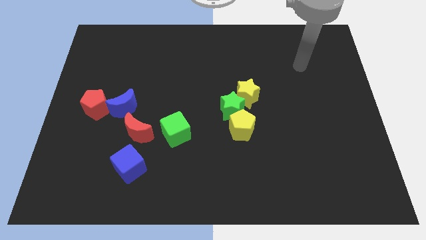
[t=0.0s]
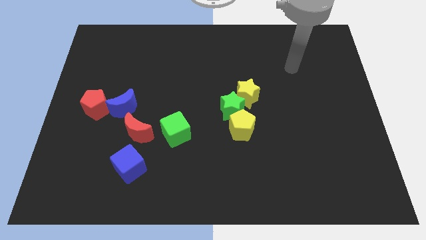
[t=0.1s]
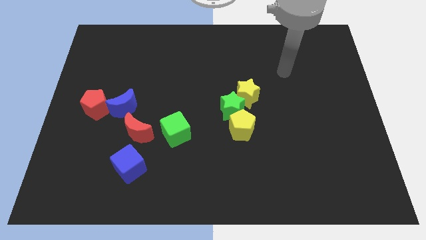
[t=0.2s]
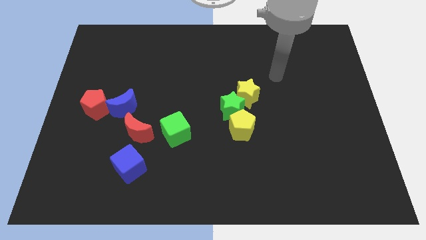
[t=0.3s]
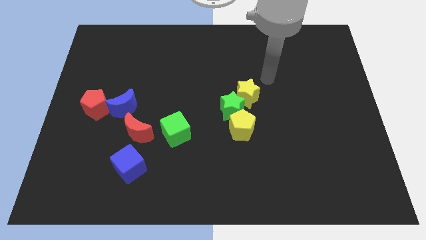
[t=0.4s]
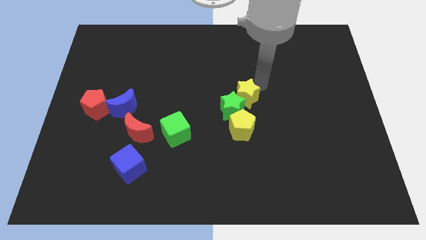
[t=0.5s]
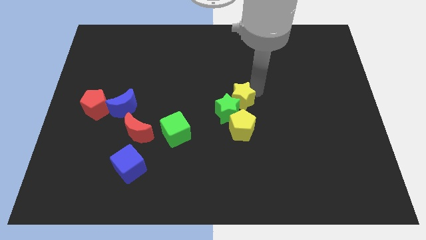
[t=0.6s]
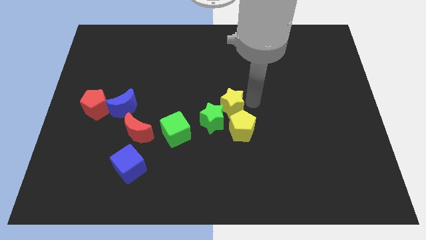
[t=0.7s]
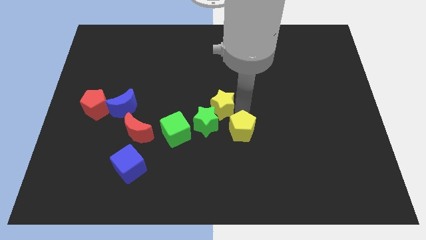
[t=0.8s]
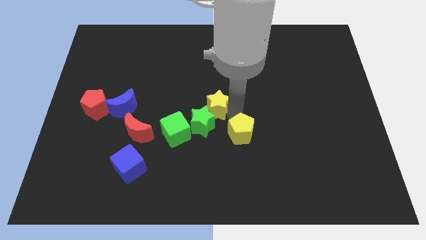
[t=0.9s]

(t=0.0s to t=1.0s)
slide the green star next to the green cube

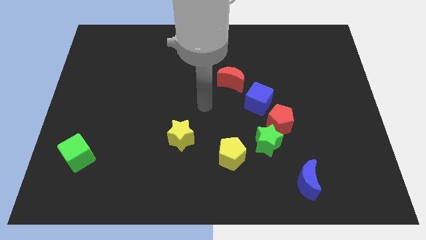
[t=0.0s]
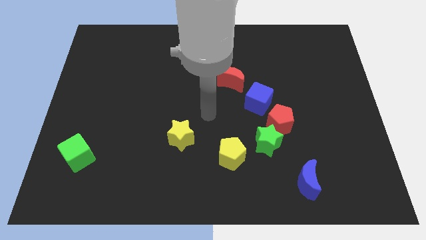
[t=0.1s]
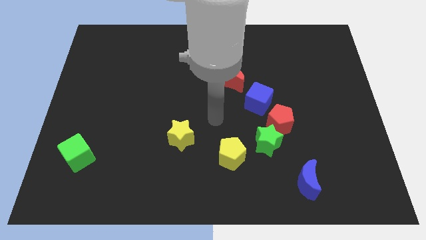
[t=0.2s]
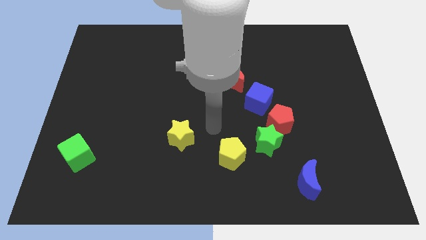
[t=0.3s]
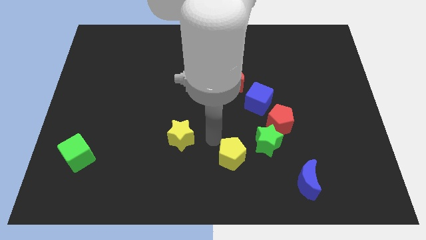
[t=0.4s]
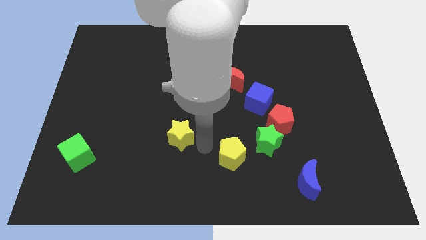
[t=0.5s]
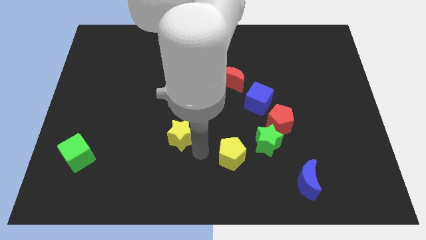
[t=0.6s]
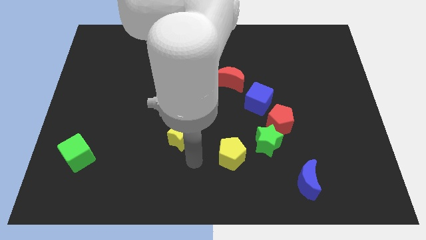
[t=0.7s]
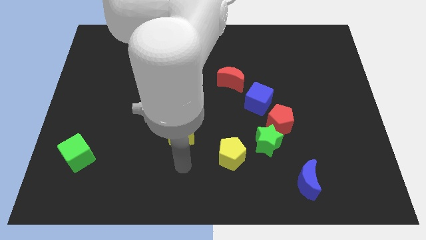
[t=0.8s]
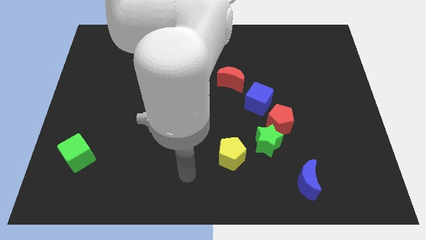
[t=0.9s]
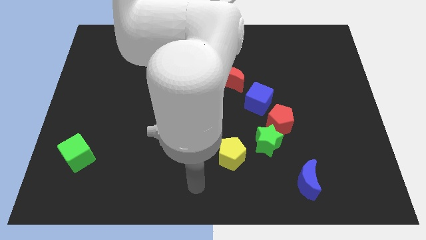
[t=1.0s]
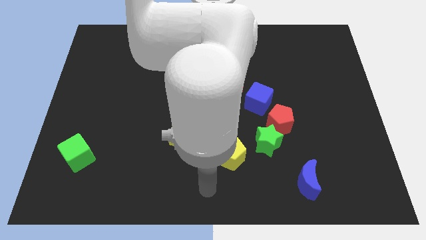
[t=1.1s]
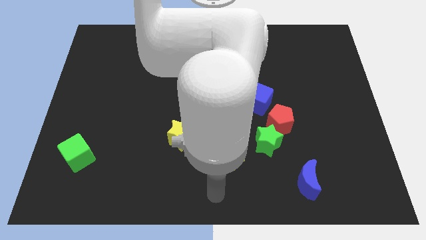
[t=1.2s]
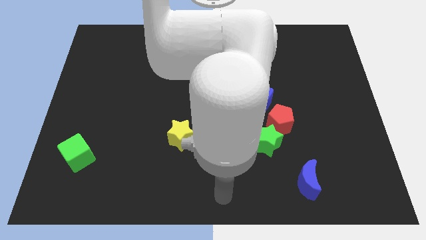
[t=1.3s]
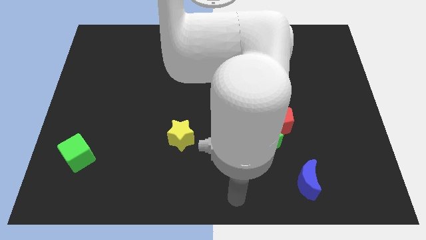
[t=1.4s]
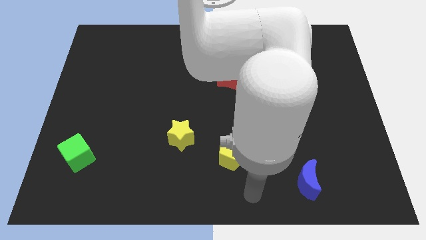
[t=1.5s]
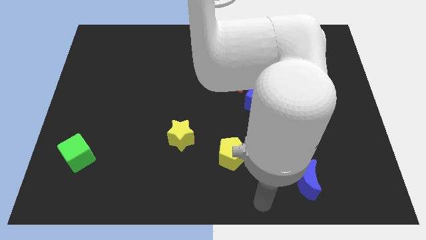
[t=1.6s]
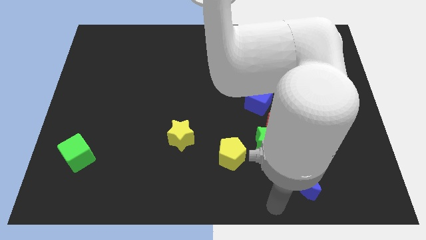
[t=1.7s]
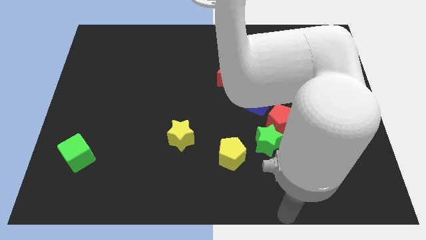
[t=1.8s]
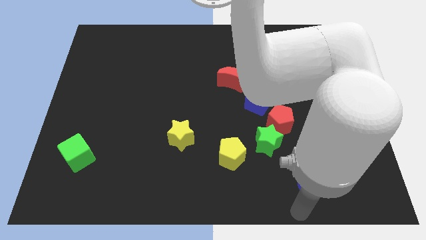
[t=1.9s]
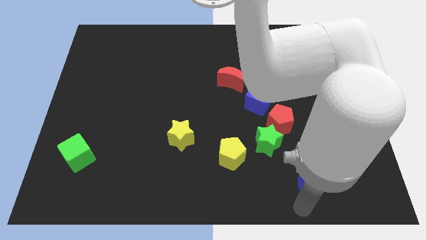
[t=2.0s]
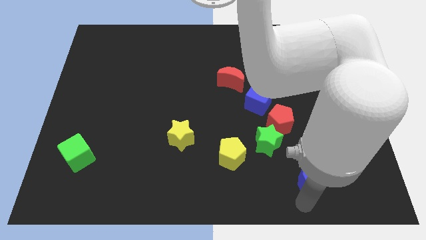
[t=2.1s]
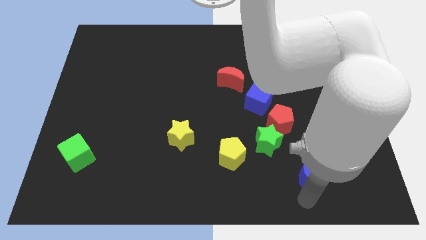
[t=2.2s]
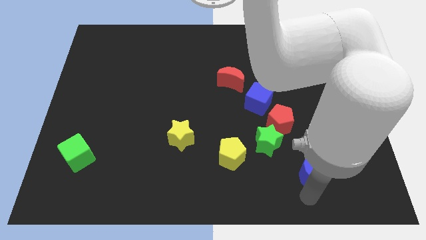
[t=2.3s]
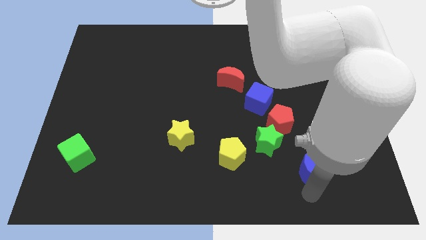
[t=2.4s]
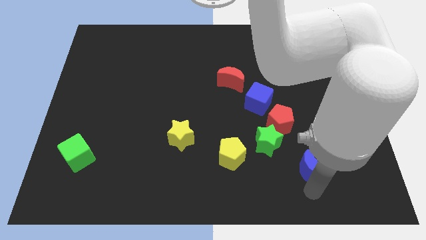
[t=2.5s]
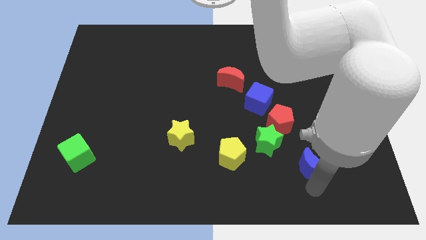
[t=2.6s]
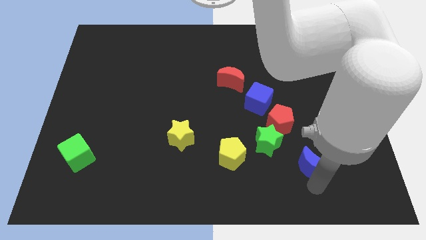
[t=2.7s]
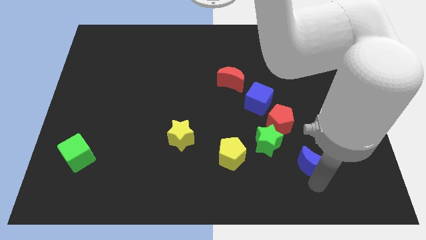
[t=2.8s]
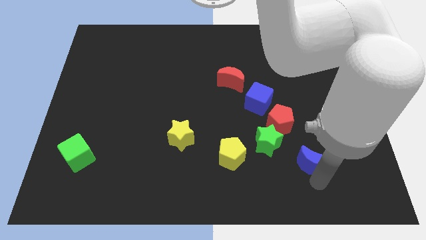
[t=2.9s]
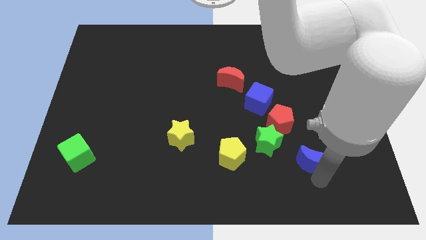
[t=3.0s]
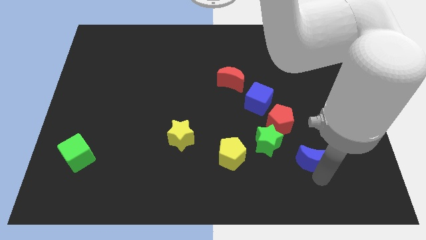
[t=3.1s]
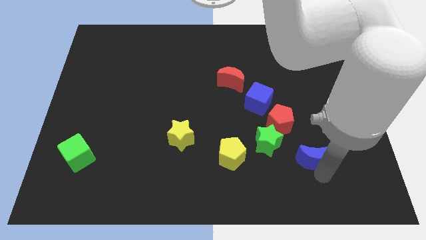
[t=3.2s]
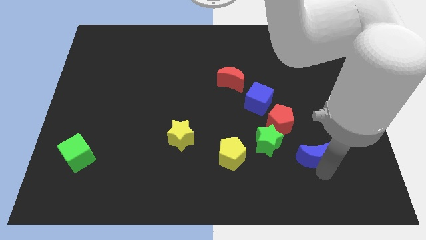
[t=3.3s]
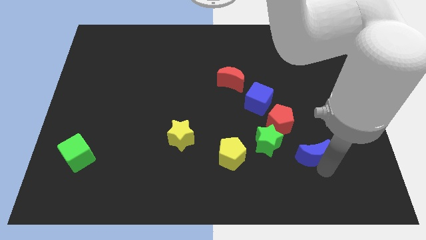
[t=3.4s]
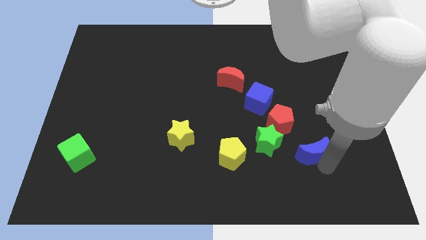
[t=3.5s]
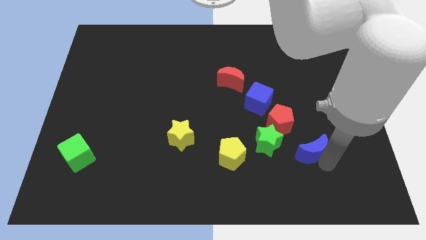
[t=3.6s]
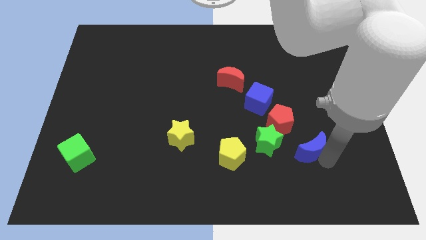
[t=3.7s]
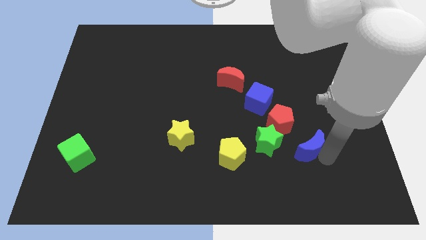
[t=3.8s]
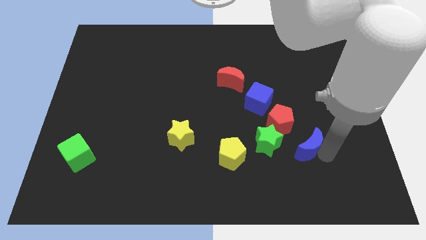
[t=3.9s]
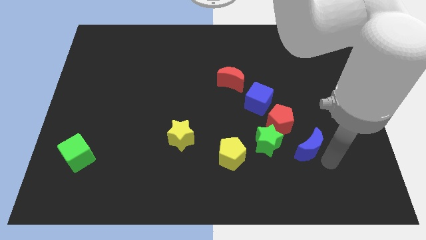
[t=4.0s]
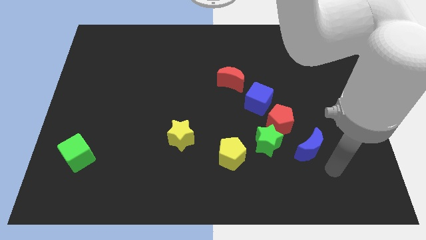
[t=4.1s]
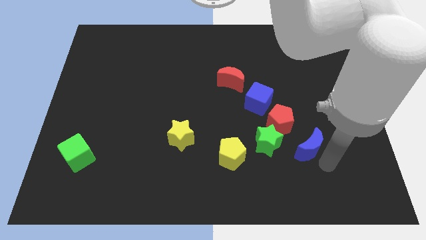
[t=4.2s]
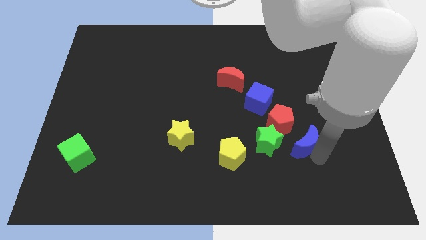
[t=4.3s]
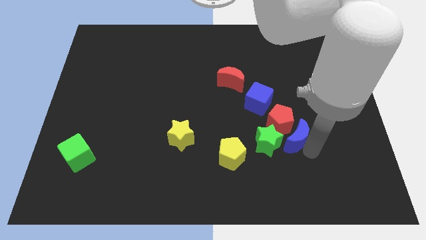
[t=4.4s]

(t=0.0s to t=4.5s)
push the blue moon to the red pentagon

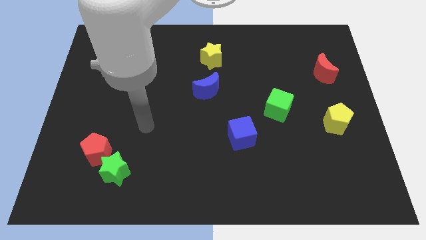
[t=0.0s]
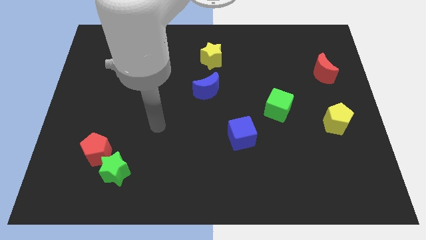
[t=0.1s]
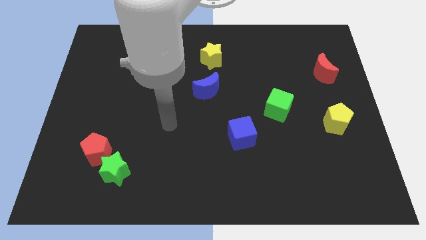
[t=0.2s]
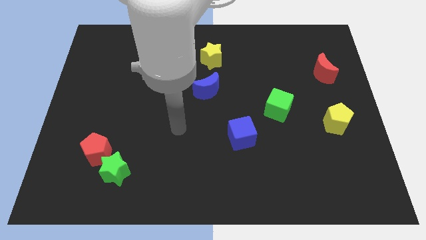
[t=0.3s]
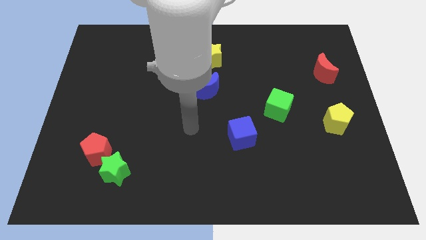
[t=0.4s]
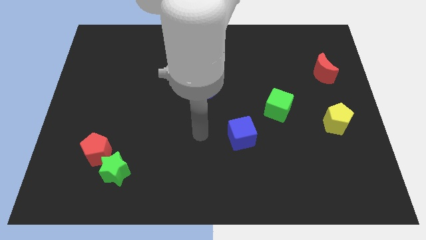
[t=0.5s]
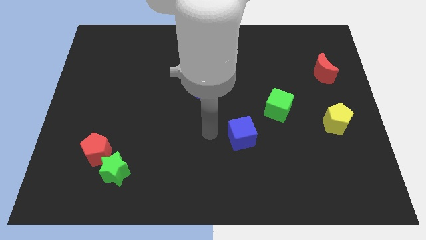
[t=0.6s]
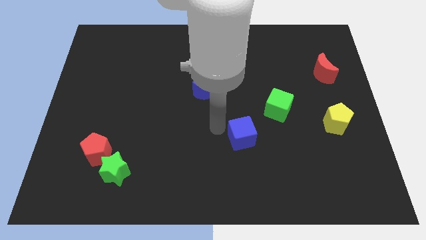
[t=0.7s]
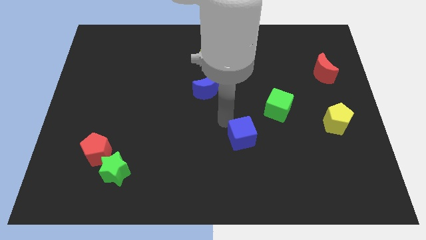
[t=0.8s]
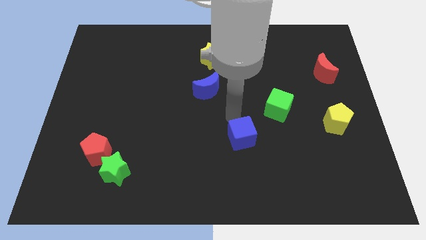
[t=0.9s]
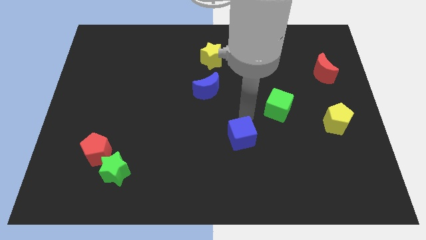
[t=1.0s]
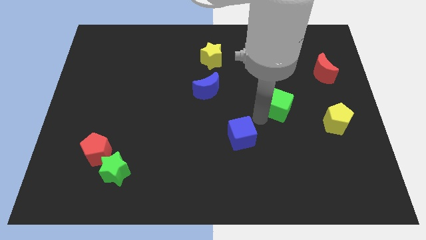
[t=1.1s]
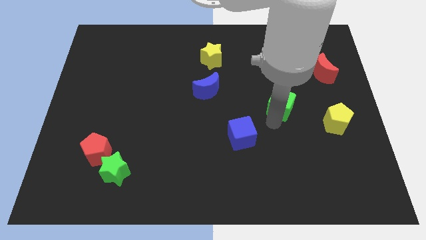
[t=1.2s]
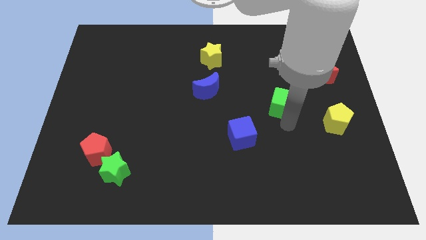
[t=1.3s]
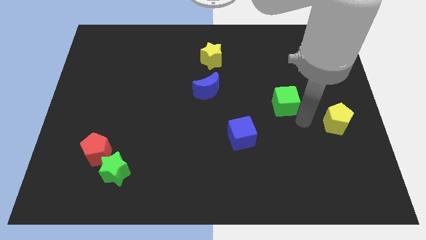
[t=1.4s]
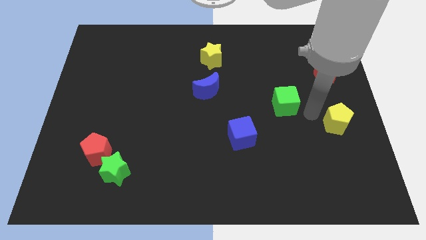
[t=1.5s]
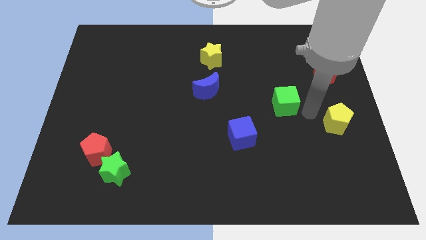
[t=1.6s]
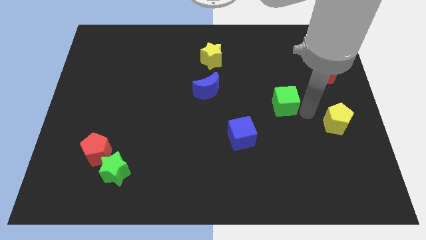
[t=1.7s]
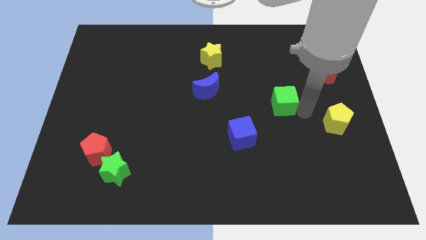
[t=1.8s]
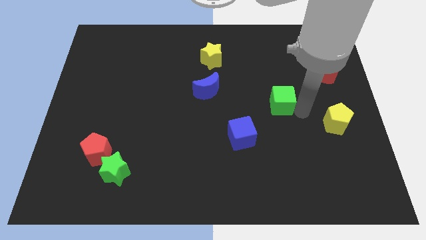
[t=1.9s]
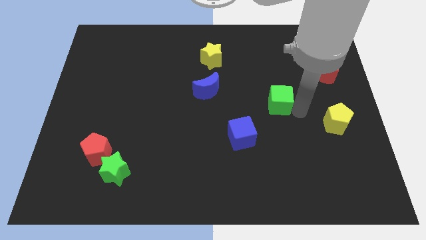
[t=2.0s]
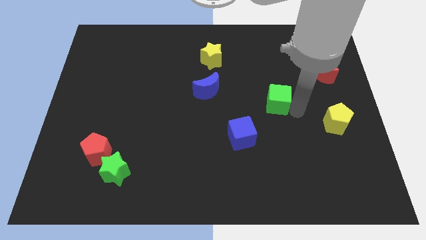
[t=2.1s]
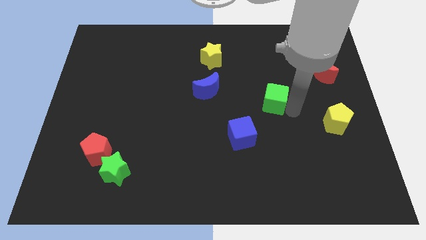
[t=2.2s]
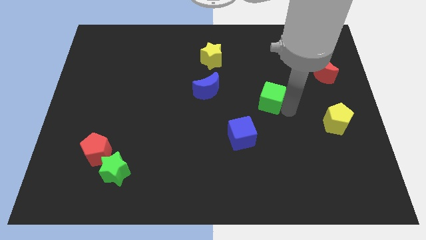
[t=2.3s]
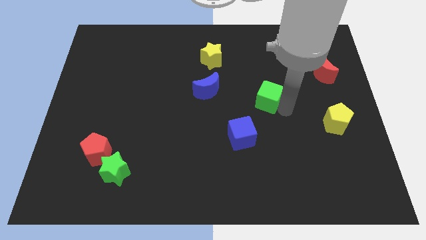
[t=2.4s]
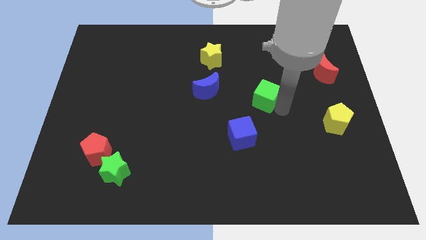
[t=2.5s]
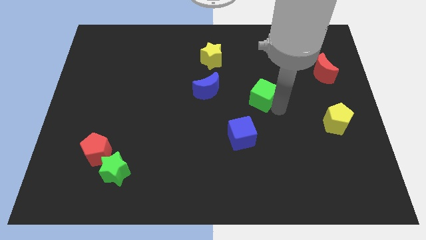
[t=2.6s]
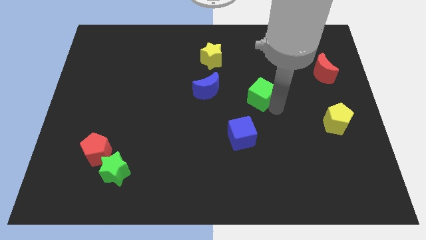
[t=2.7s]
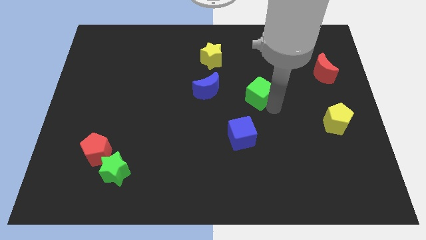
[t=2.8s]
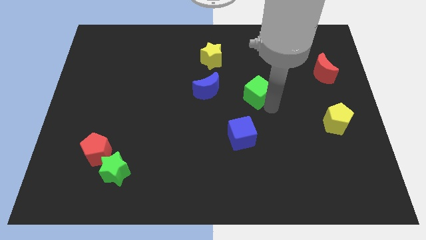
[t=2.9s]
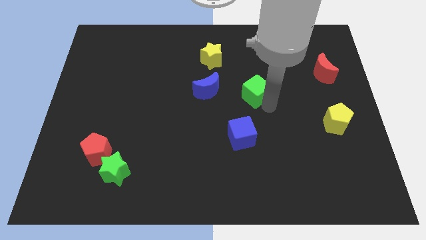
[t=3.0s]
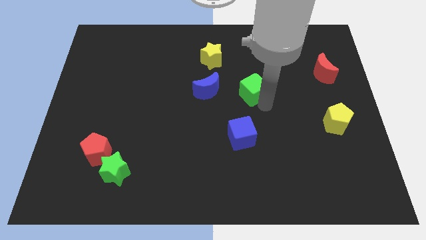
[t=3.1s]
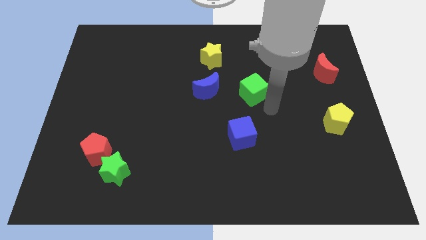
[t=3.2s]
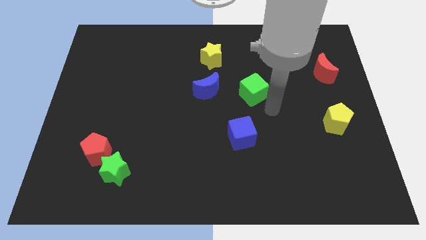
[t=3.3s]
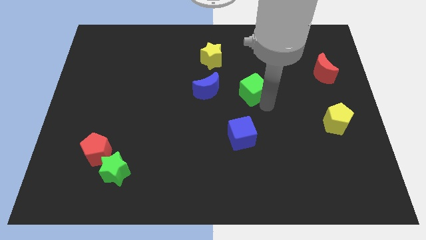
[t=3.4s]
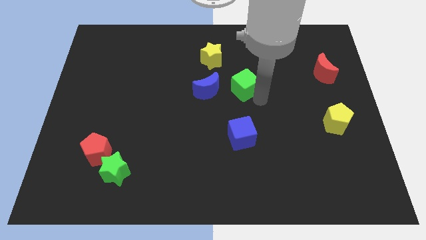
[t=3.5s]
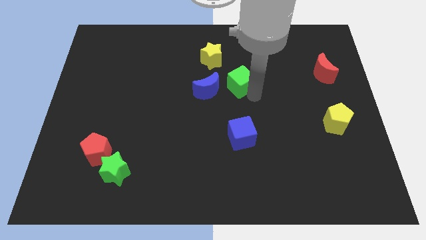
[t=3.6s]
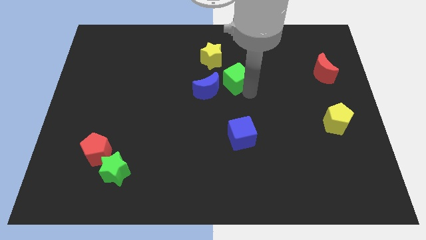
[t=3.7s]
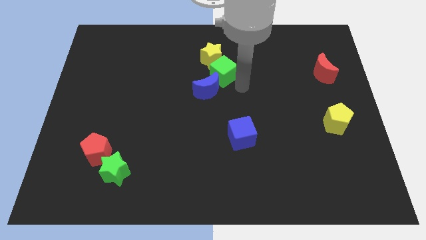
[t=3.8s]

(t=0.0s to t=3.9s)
slide the green cube close to the yellow star
